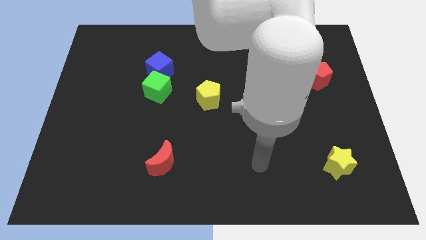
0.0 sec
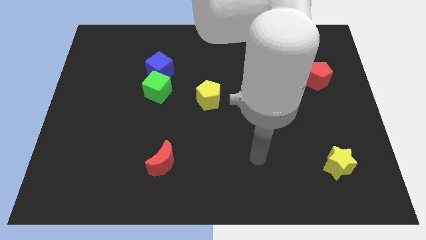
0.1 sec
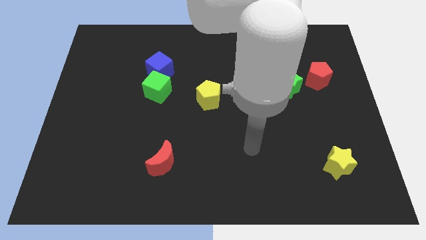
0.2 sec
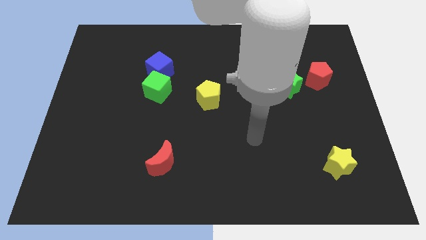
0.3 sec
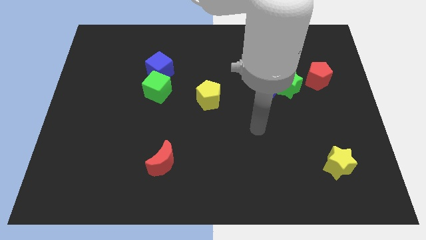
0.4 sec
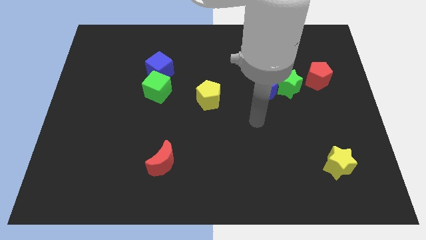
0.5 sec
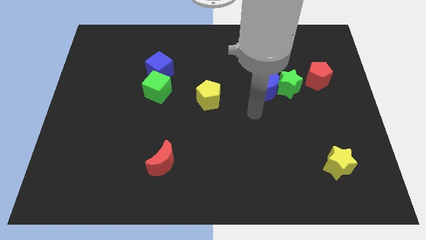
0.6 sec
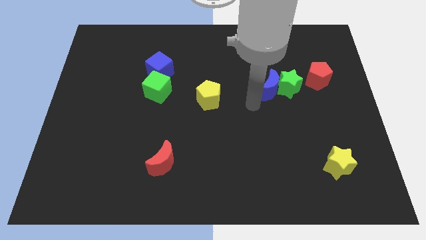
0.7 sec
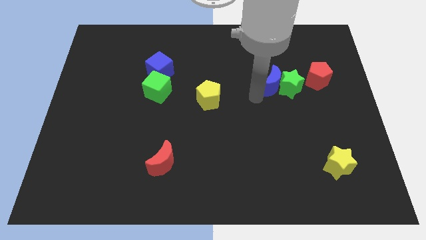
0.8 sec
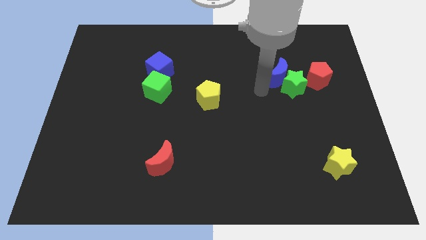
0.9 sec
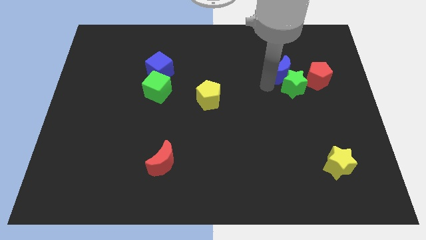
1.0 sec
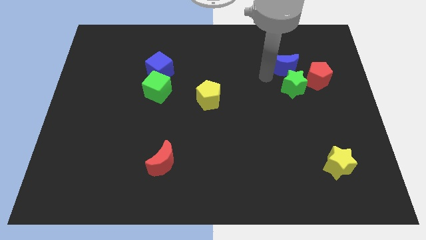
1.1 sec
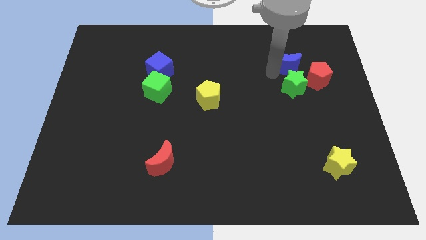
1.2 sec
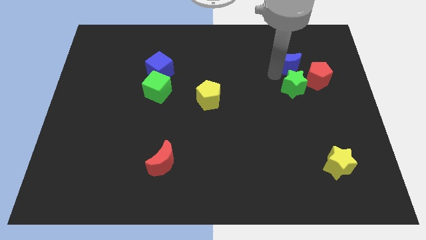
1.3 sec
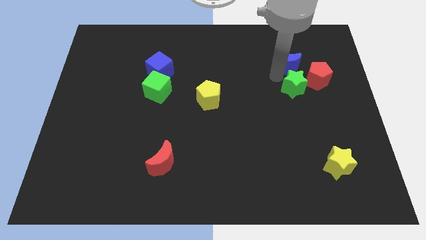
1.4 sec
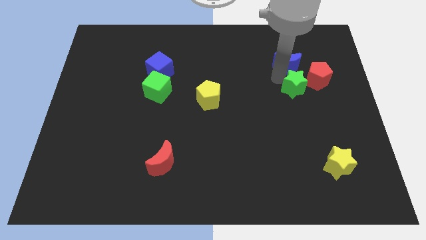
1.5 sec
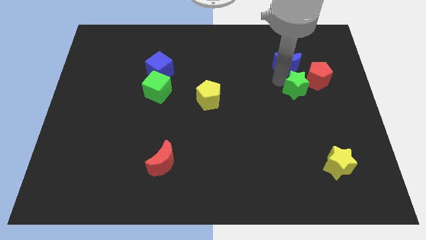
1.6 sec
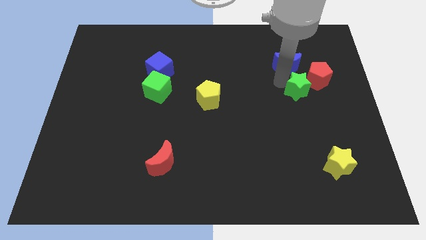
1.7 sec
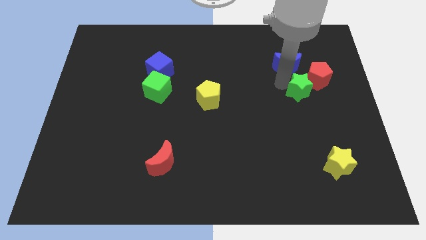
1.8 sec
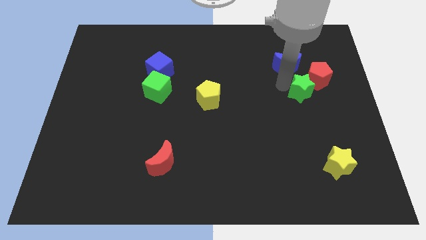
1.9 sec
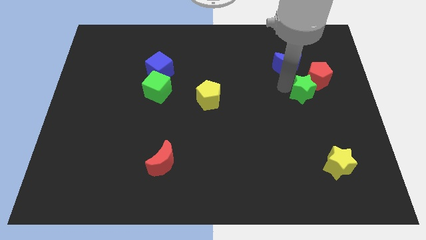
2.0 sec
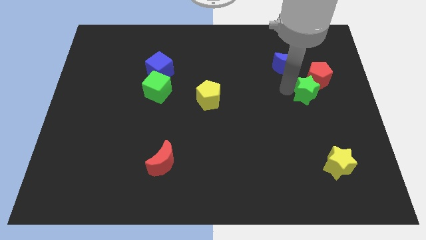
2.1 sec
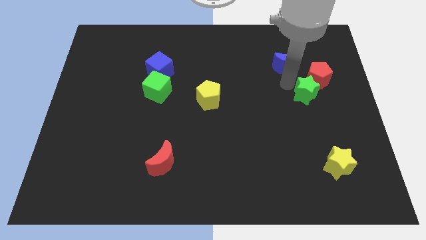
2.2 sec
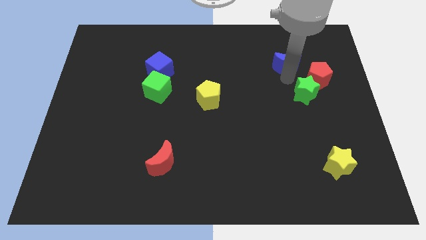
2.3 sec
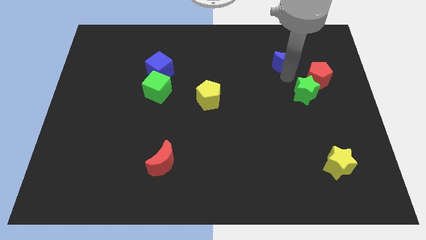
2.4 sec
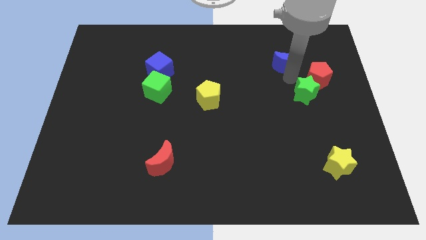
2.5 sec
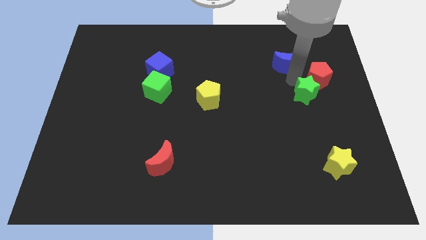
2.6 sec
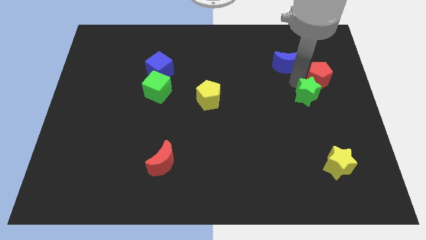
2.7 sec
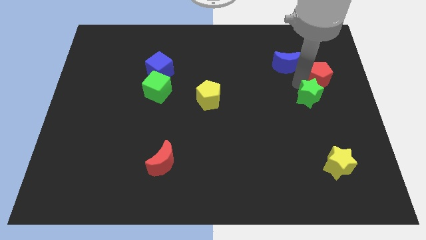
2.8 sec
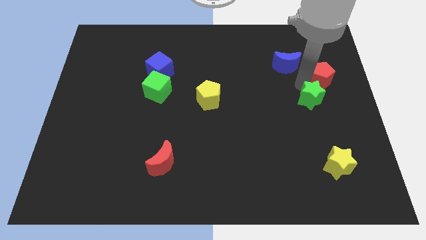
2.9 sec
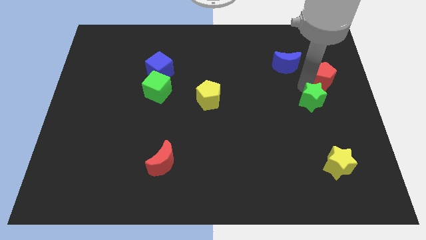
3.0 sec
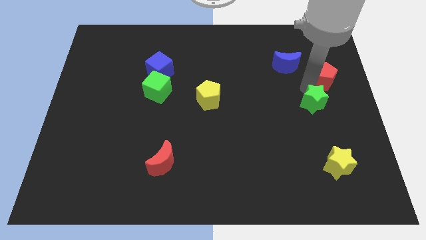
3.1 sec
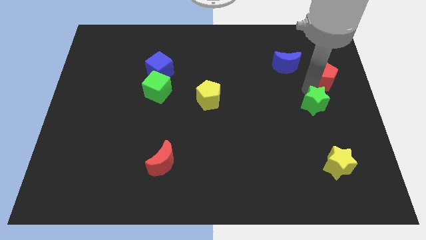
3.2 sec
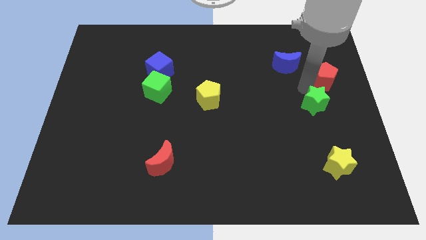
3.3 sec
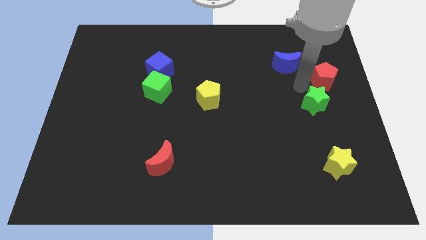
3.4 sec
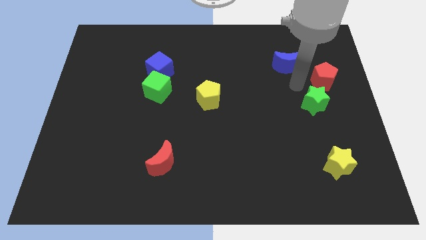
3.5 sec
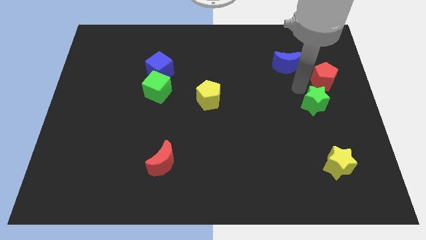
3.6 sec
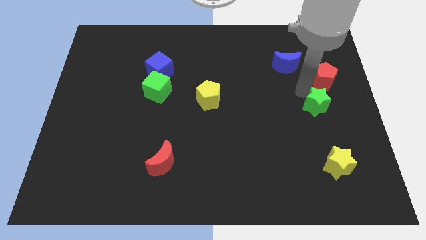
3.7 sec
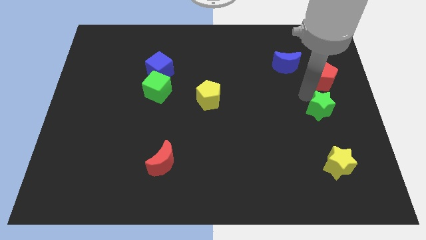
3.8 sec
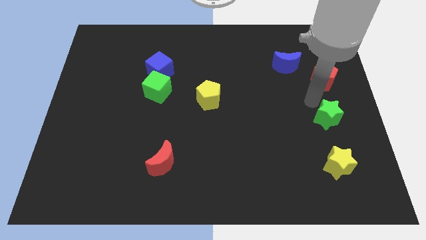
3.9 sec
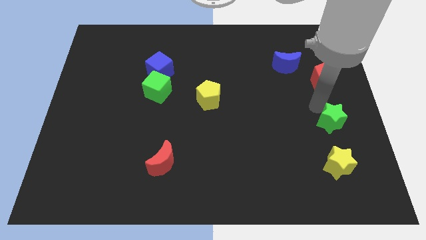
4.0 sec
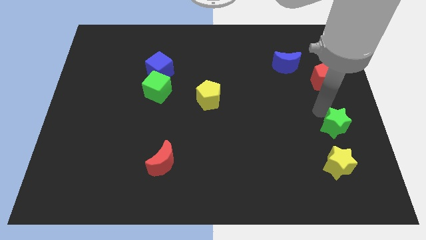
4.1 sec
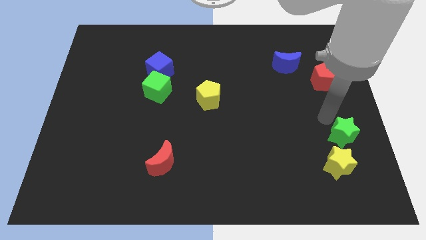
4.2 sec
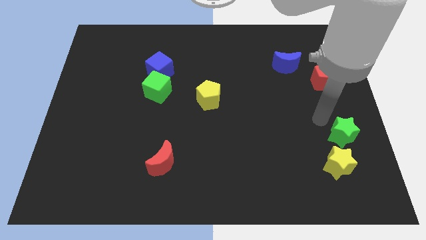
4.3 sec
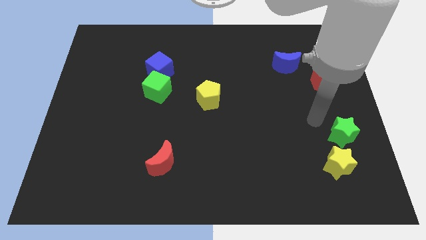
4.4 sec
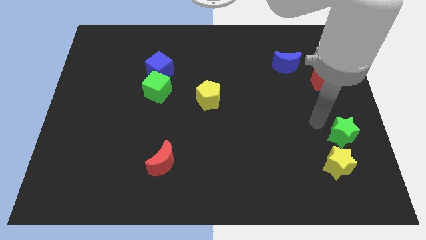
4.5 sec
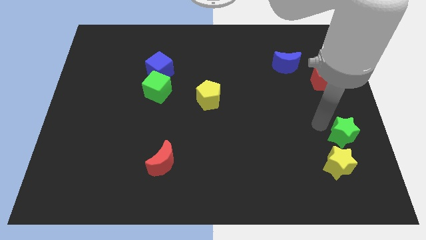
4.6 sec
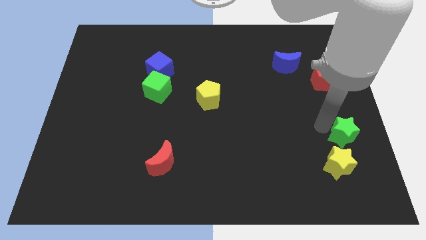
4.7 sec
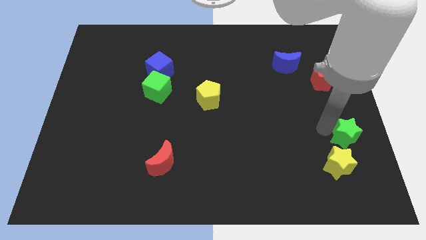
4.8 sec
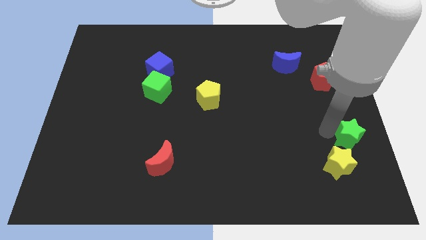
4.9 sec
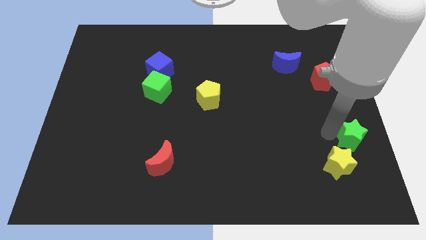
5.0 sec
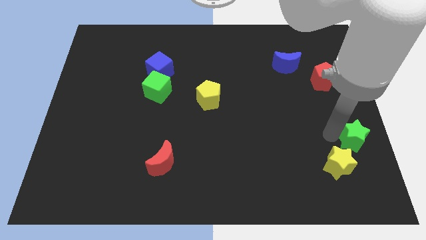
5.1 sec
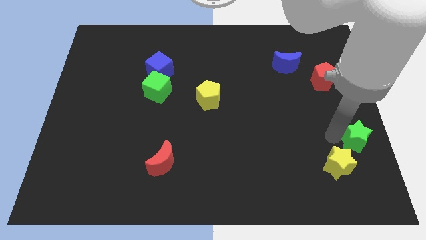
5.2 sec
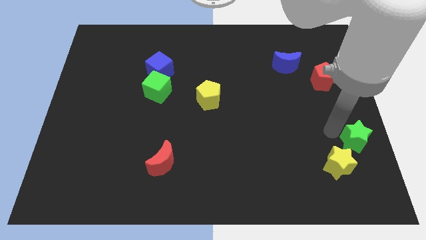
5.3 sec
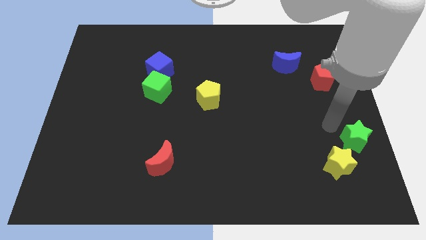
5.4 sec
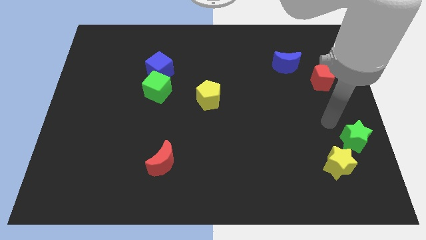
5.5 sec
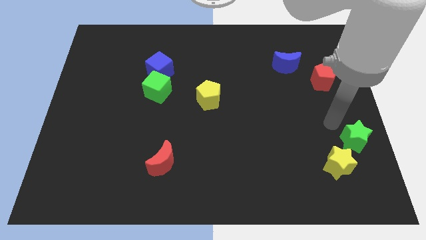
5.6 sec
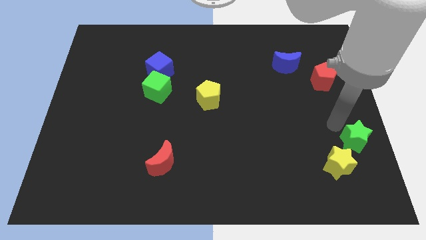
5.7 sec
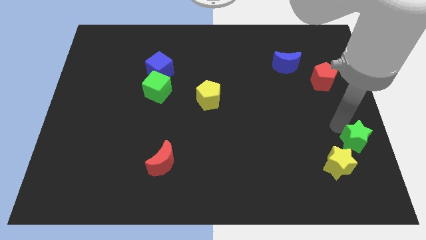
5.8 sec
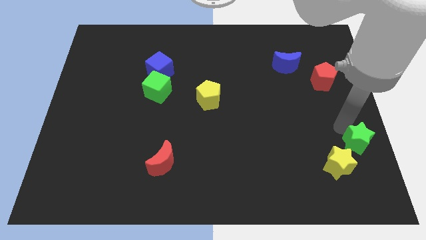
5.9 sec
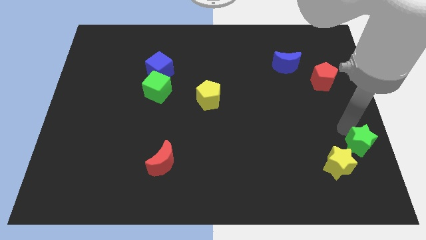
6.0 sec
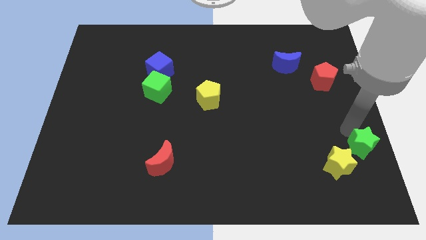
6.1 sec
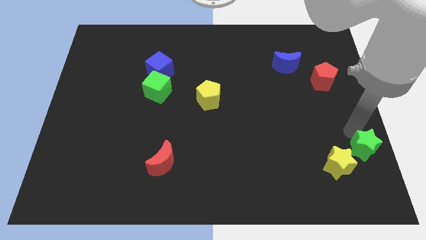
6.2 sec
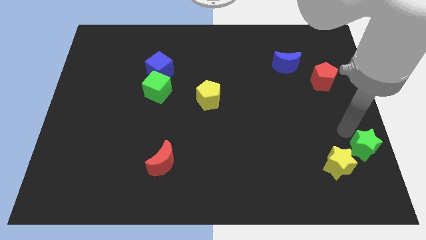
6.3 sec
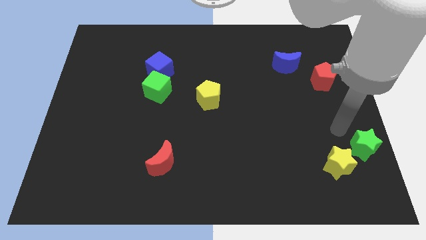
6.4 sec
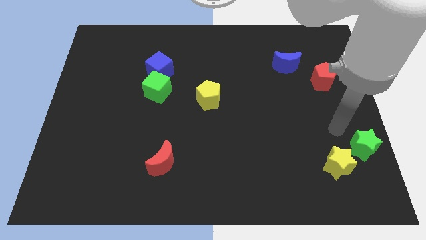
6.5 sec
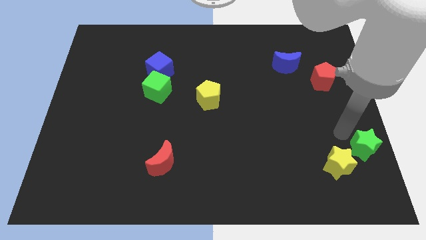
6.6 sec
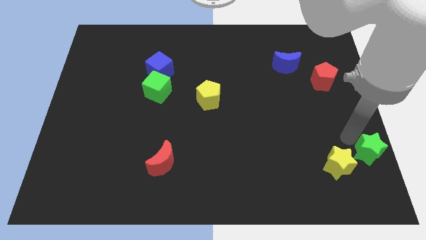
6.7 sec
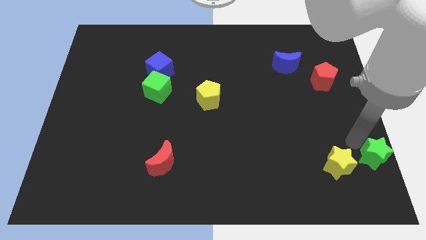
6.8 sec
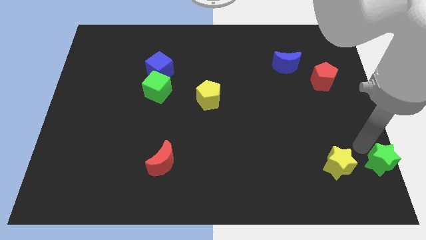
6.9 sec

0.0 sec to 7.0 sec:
slide the green star to the lower right corner
